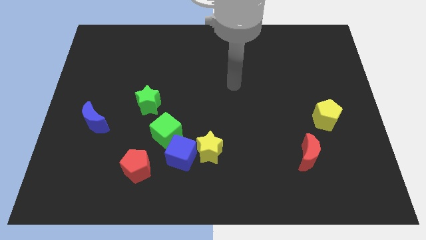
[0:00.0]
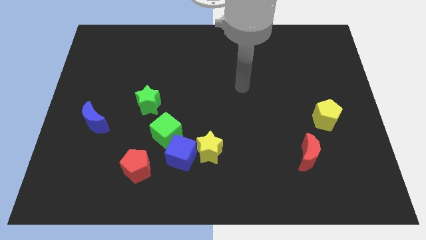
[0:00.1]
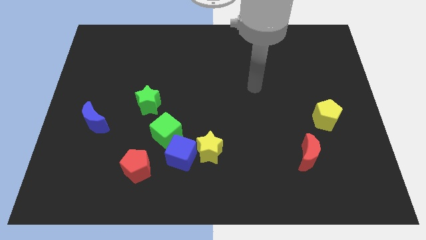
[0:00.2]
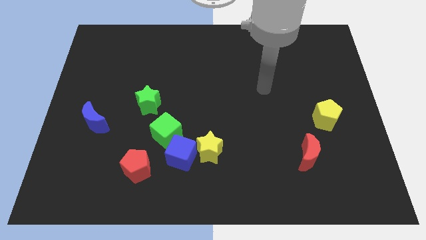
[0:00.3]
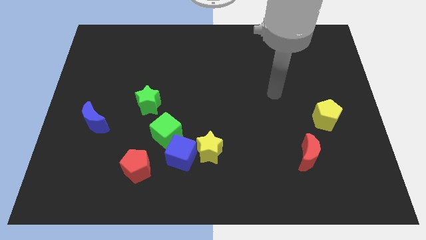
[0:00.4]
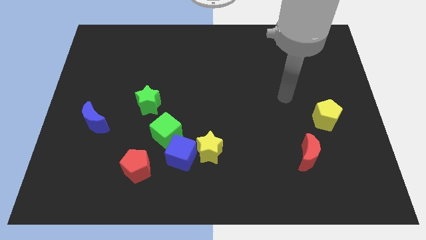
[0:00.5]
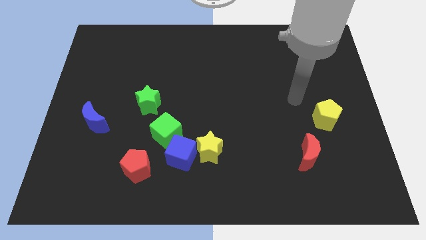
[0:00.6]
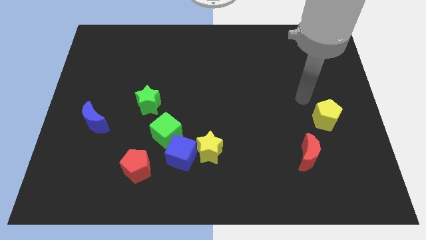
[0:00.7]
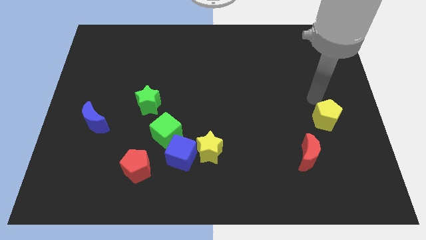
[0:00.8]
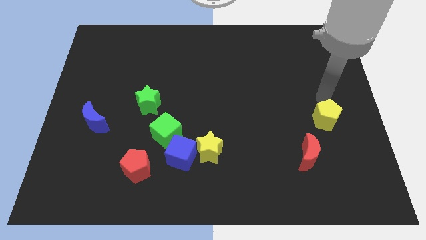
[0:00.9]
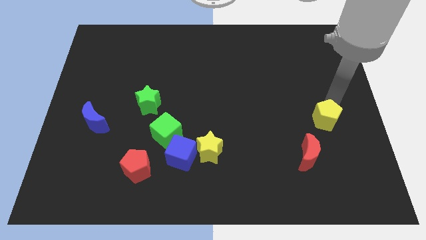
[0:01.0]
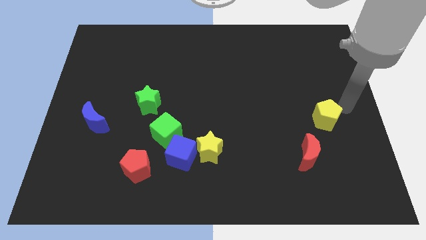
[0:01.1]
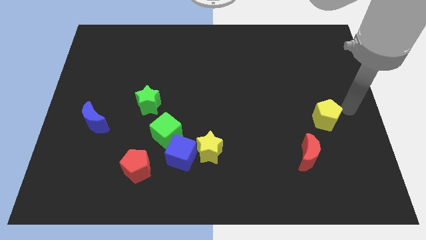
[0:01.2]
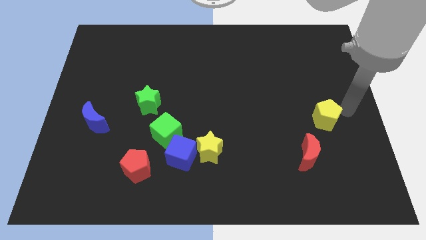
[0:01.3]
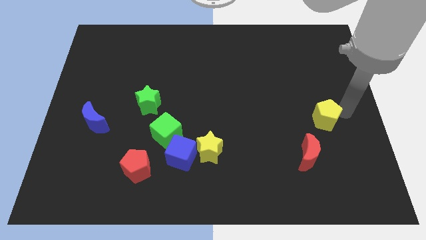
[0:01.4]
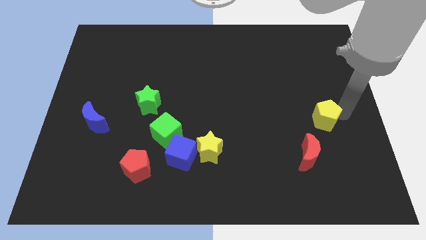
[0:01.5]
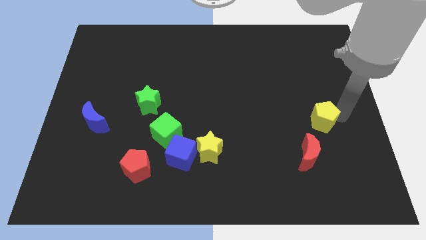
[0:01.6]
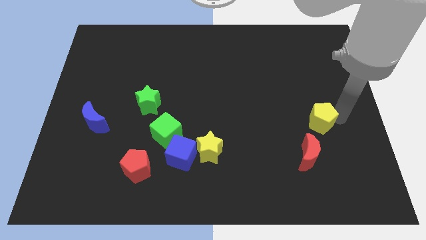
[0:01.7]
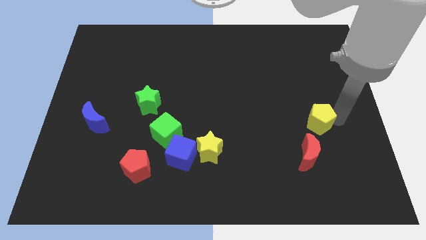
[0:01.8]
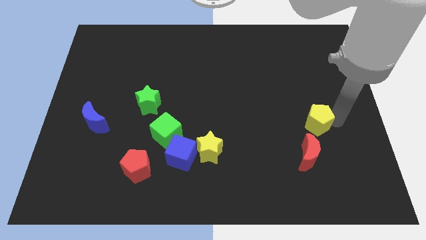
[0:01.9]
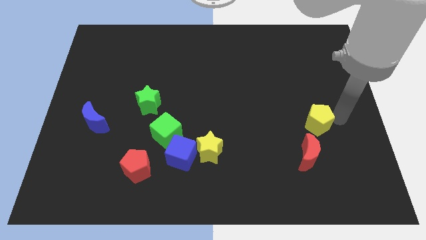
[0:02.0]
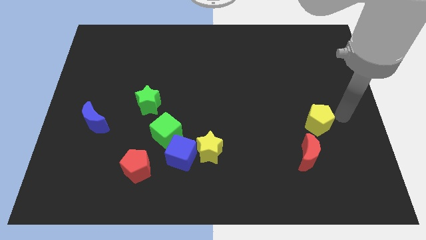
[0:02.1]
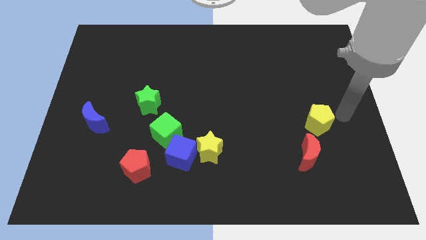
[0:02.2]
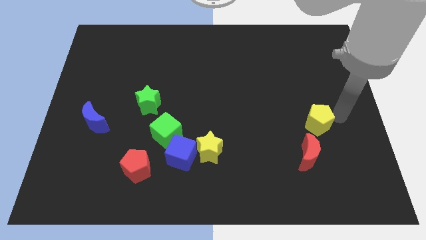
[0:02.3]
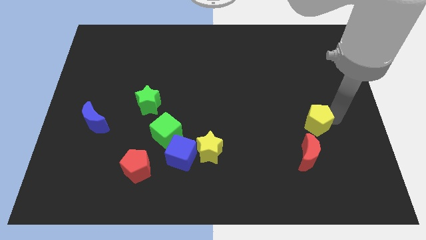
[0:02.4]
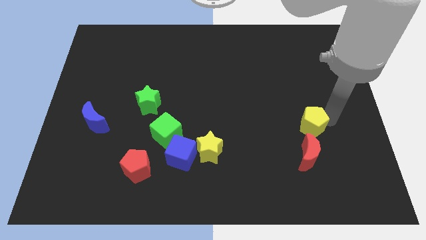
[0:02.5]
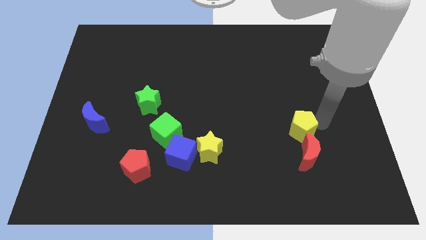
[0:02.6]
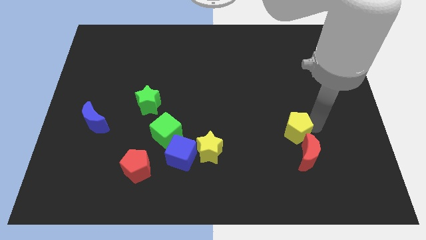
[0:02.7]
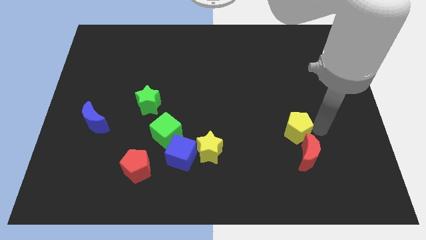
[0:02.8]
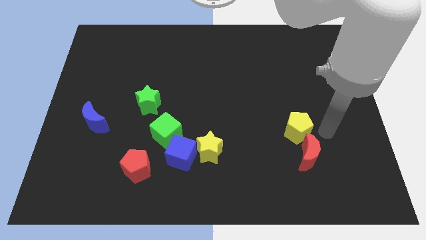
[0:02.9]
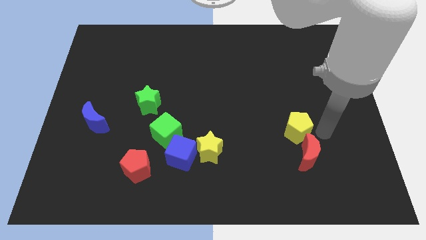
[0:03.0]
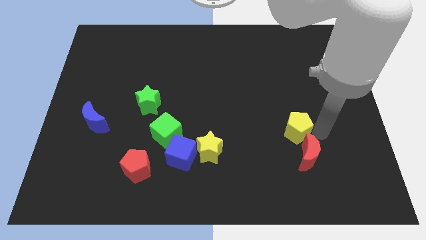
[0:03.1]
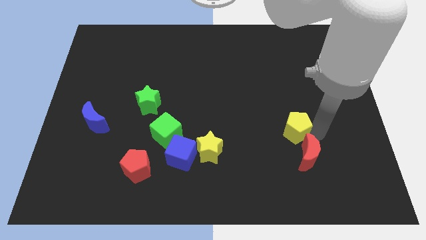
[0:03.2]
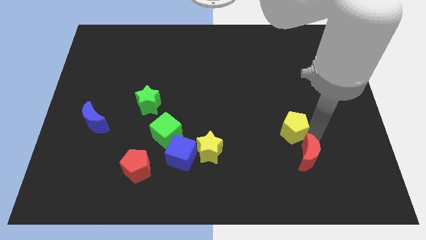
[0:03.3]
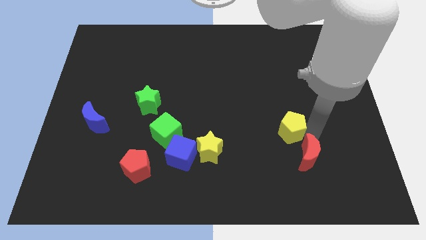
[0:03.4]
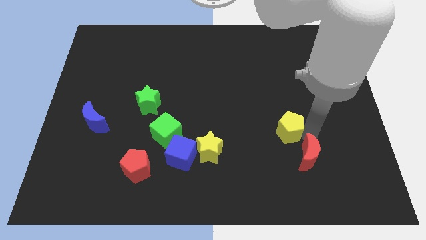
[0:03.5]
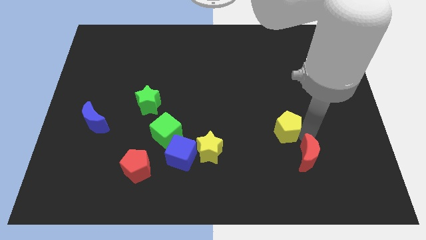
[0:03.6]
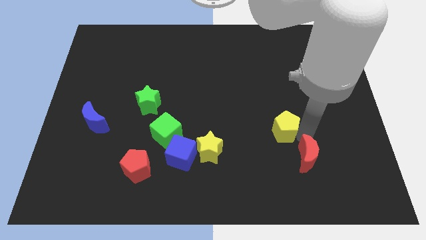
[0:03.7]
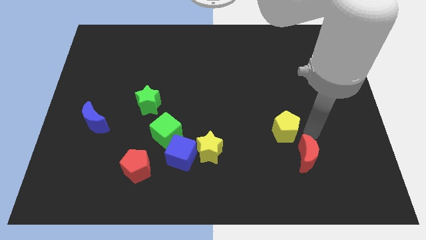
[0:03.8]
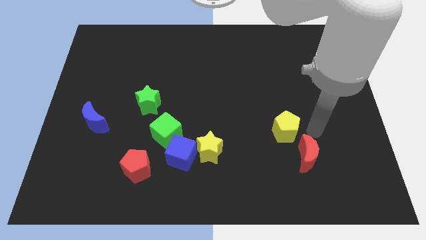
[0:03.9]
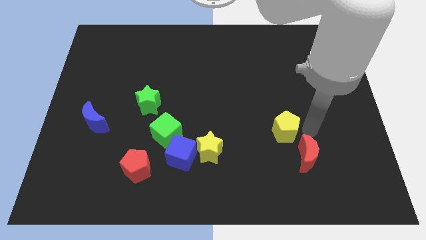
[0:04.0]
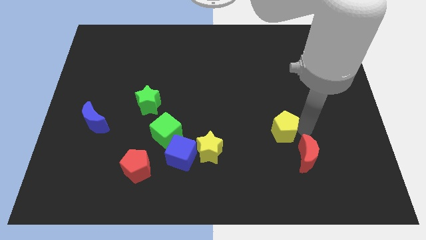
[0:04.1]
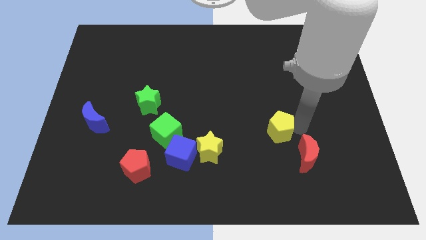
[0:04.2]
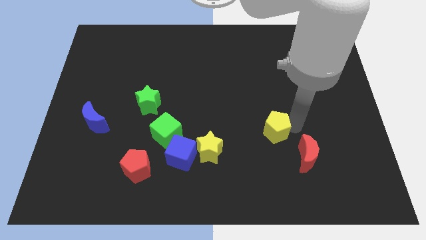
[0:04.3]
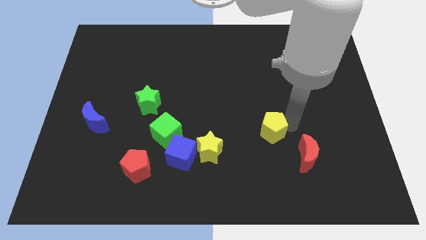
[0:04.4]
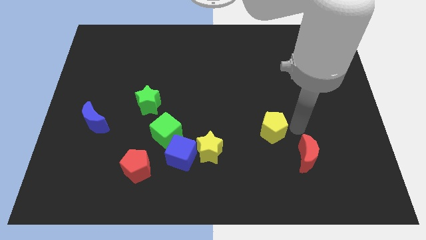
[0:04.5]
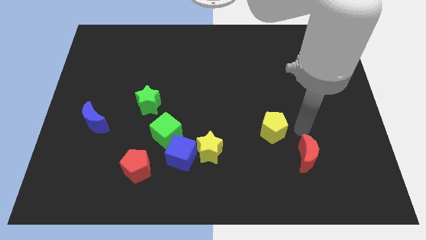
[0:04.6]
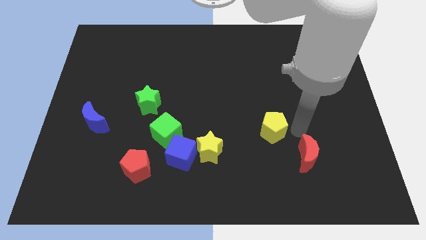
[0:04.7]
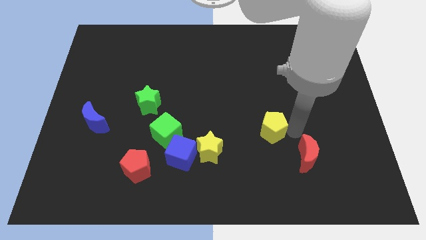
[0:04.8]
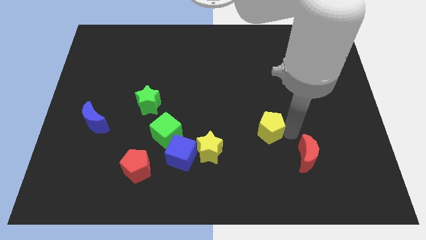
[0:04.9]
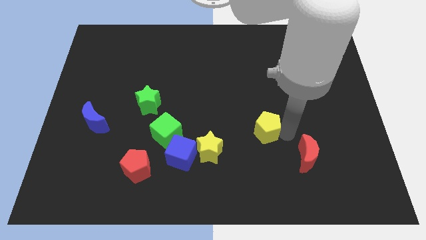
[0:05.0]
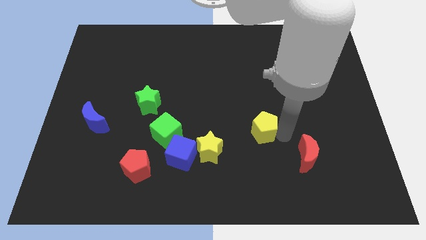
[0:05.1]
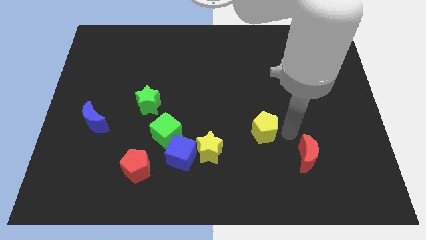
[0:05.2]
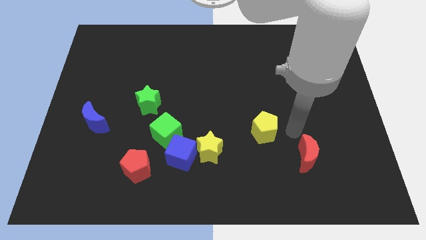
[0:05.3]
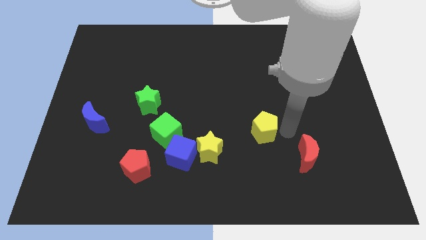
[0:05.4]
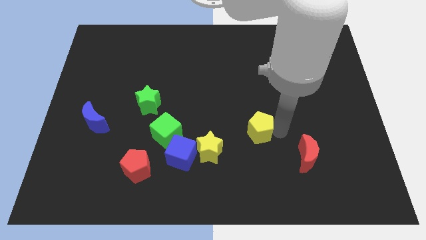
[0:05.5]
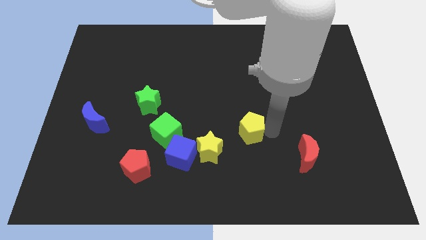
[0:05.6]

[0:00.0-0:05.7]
slide the yellow pentagon to the top right of the yellow star

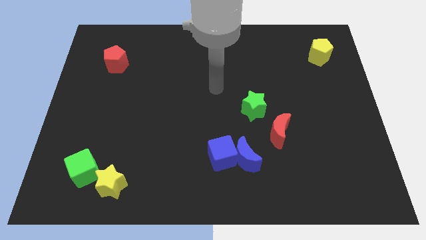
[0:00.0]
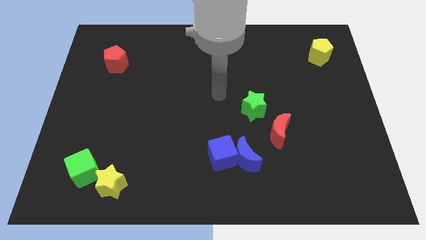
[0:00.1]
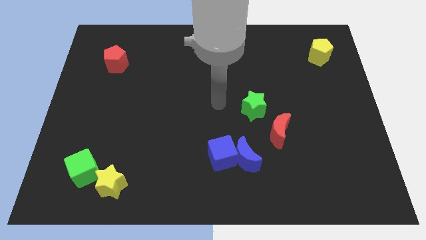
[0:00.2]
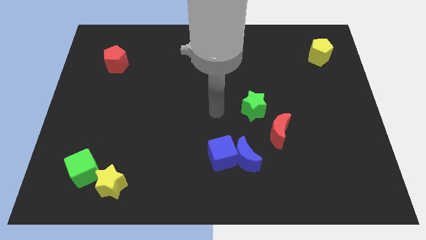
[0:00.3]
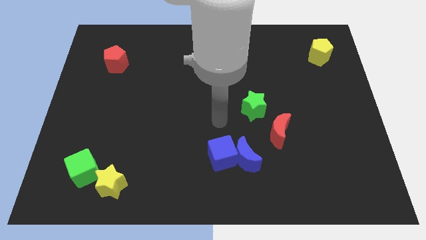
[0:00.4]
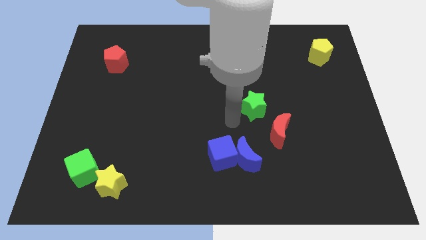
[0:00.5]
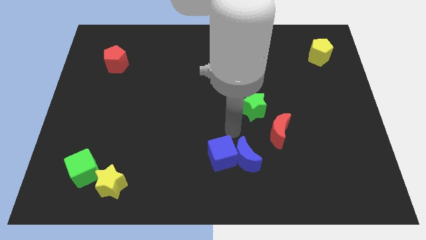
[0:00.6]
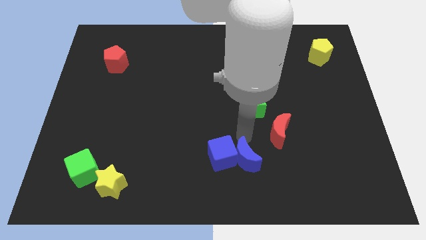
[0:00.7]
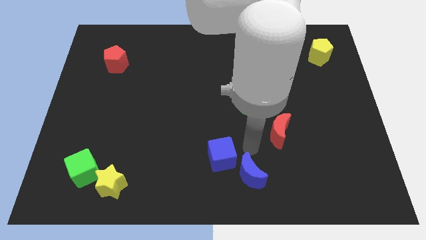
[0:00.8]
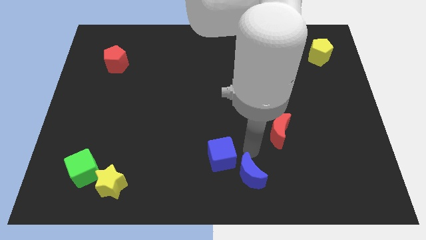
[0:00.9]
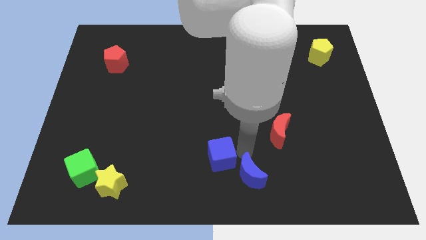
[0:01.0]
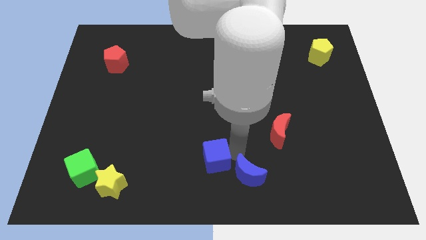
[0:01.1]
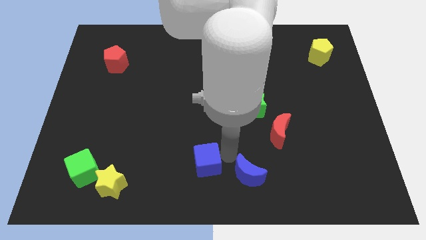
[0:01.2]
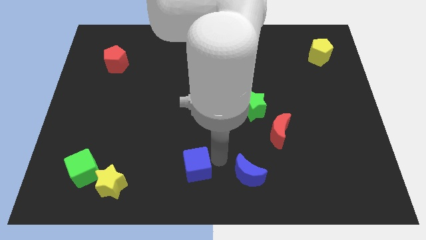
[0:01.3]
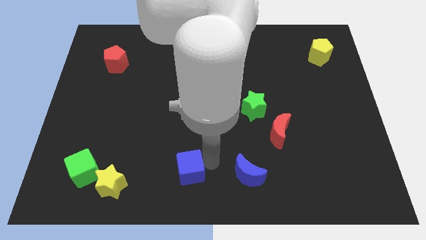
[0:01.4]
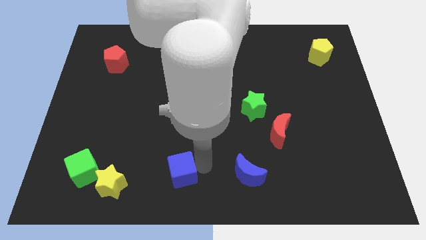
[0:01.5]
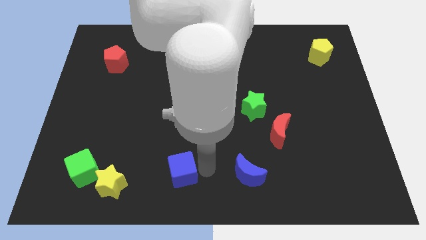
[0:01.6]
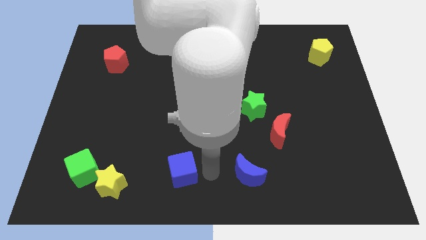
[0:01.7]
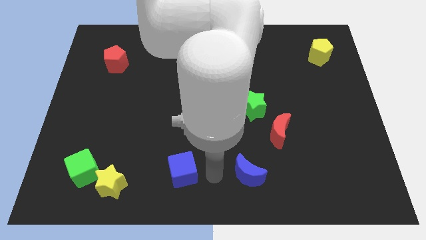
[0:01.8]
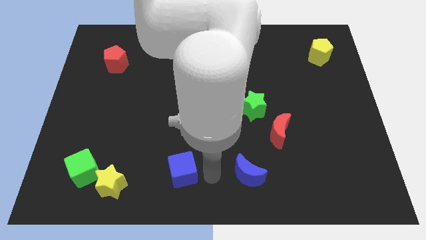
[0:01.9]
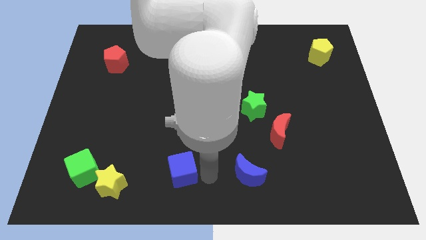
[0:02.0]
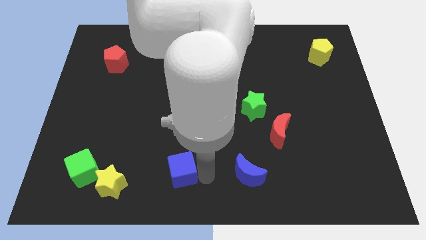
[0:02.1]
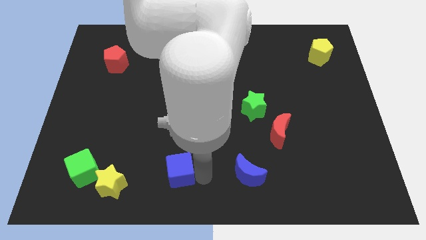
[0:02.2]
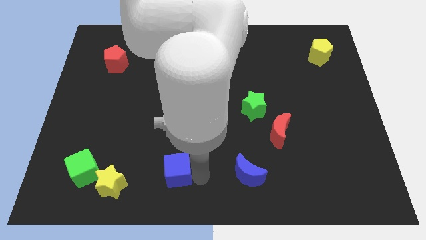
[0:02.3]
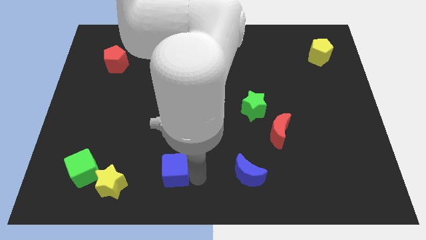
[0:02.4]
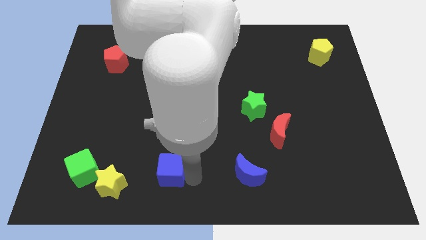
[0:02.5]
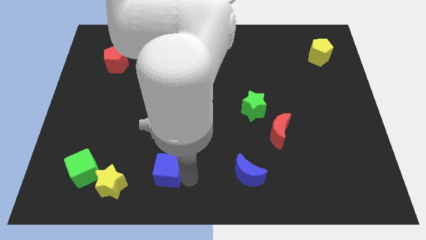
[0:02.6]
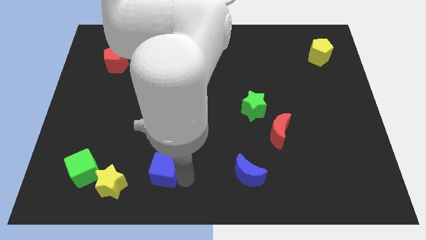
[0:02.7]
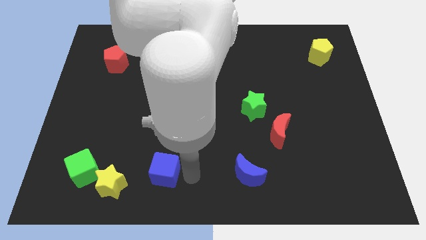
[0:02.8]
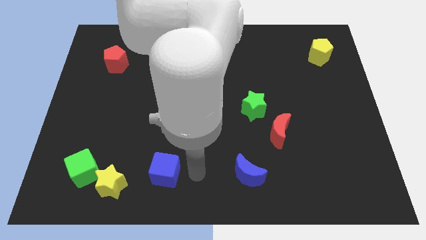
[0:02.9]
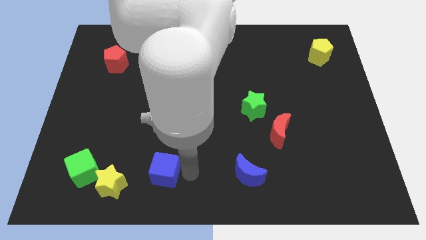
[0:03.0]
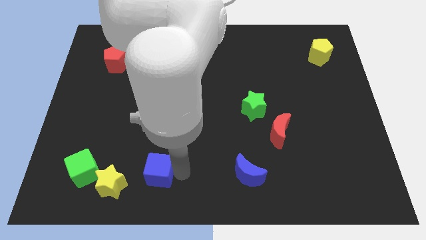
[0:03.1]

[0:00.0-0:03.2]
move the blue cube to the right side of the green cube
